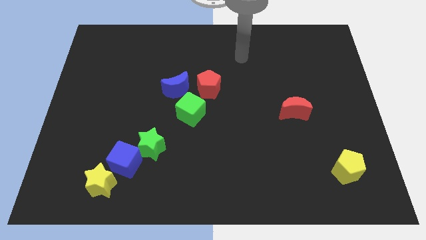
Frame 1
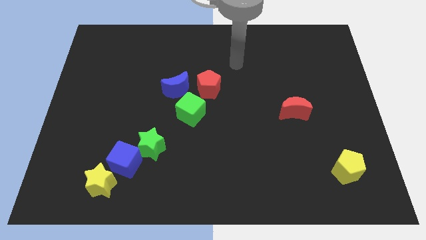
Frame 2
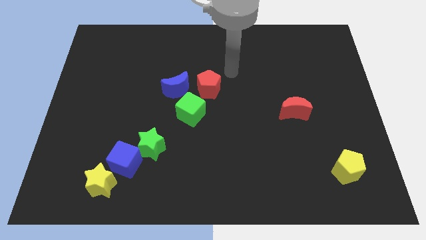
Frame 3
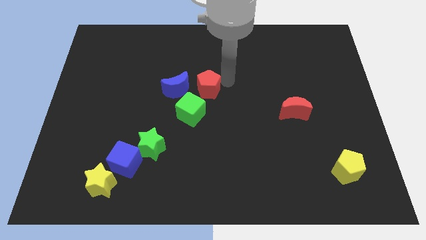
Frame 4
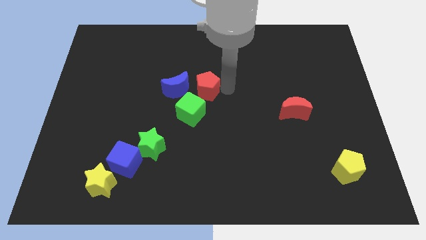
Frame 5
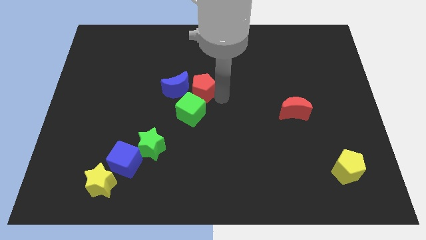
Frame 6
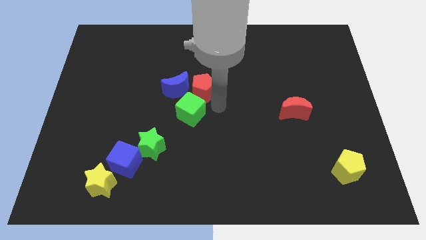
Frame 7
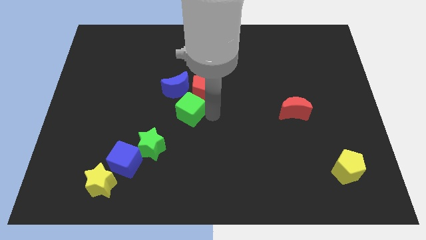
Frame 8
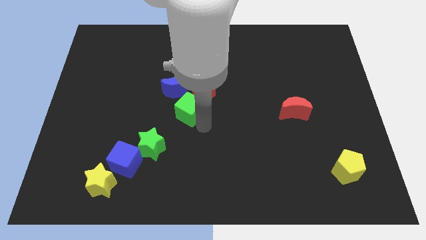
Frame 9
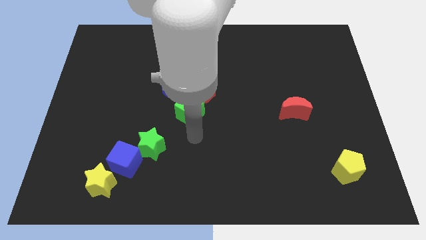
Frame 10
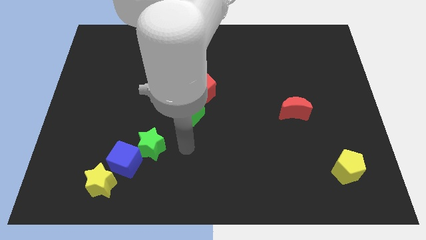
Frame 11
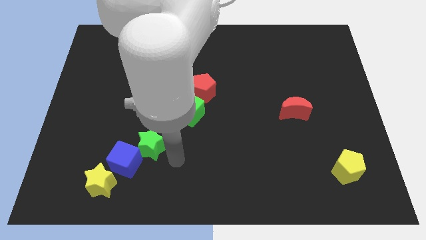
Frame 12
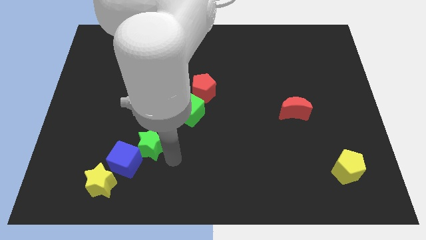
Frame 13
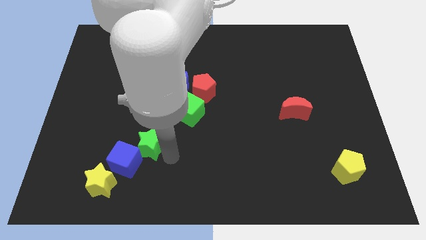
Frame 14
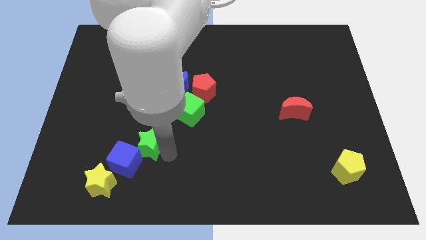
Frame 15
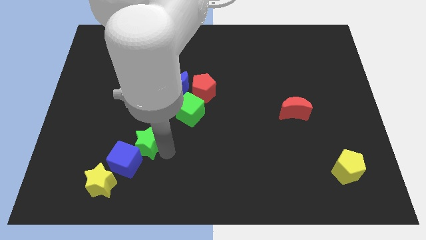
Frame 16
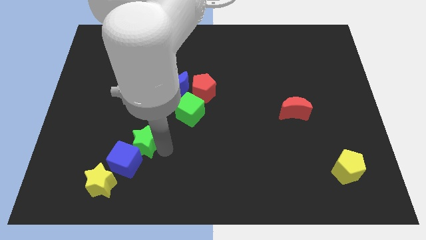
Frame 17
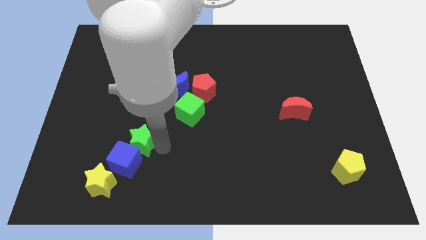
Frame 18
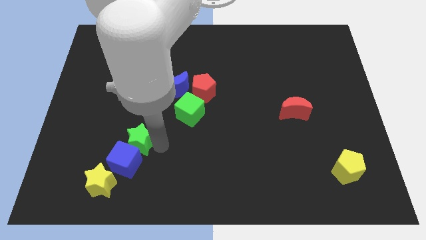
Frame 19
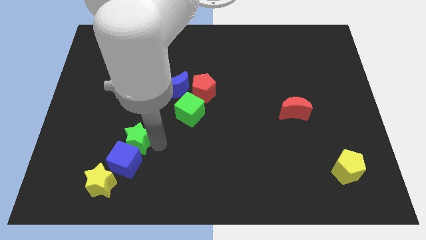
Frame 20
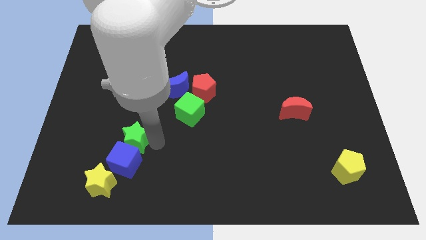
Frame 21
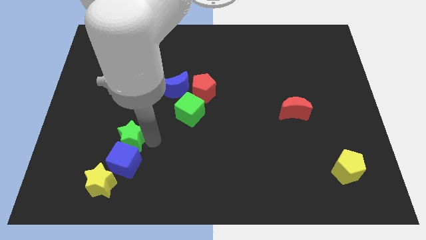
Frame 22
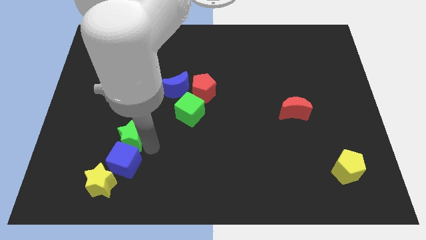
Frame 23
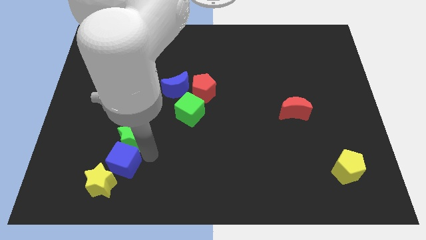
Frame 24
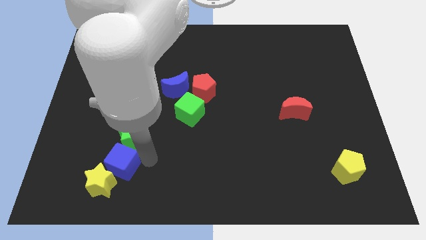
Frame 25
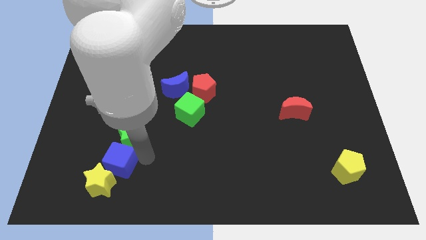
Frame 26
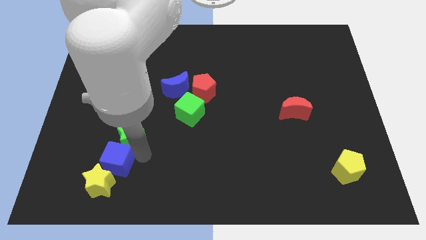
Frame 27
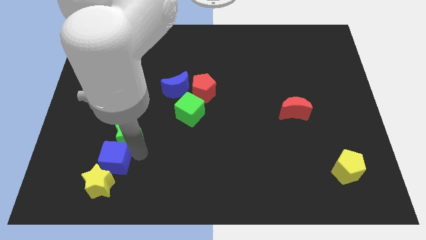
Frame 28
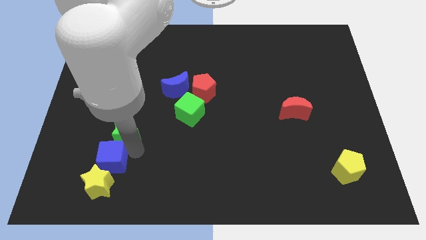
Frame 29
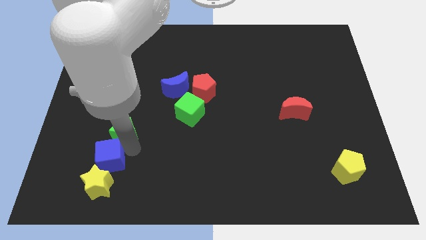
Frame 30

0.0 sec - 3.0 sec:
slide the green star a little bit upwards and left

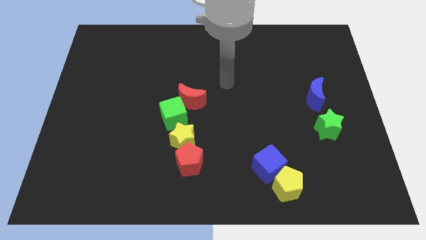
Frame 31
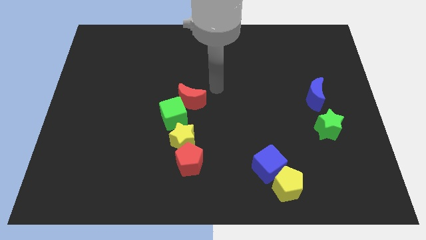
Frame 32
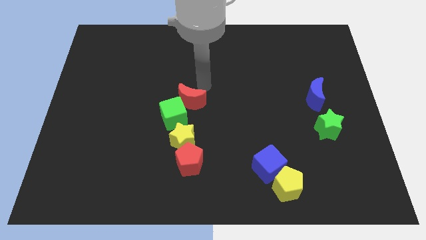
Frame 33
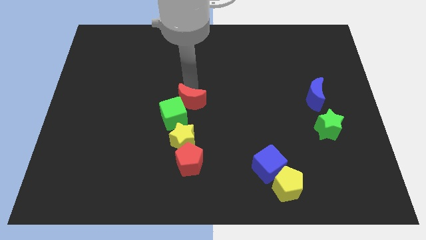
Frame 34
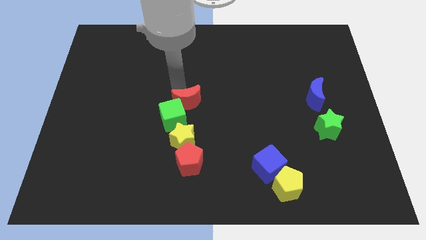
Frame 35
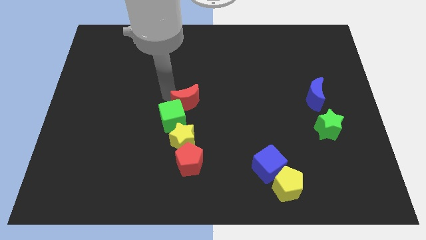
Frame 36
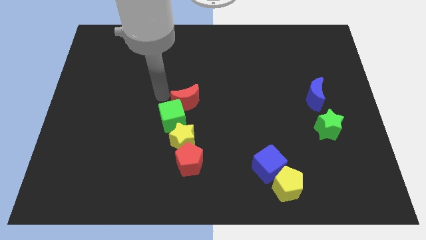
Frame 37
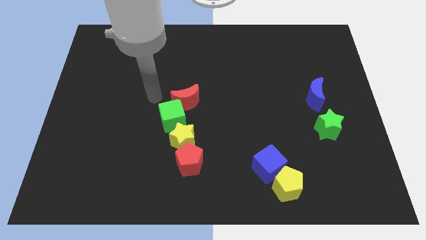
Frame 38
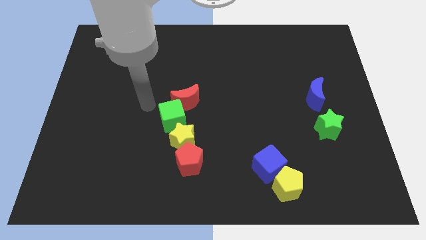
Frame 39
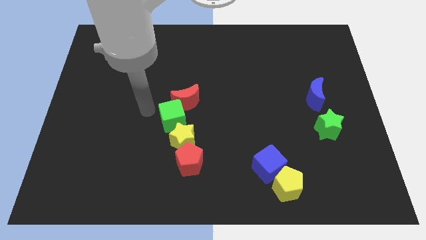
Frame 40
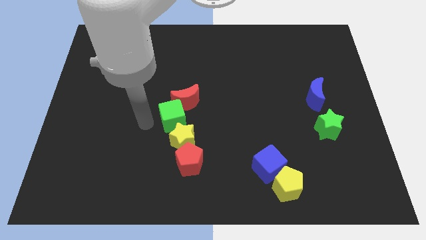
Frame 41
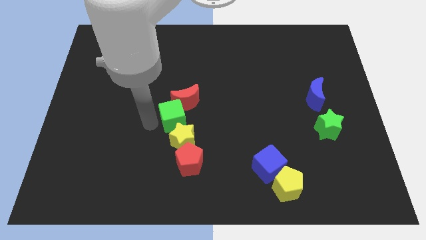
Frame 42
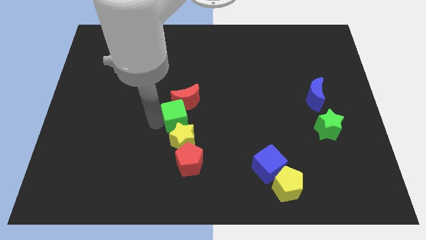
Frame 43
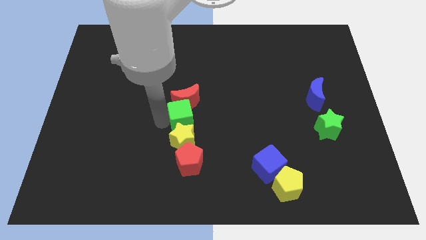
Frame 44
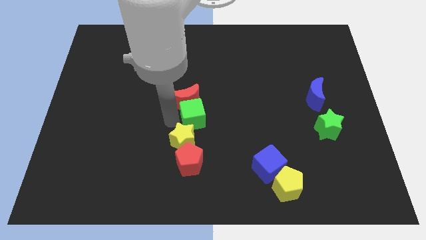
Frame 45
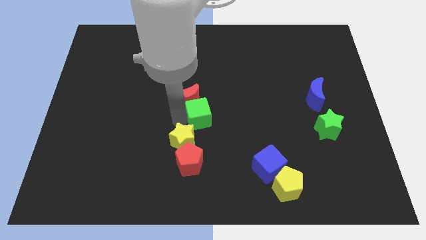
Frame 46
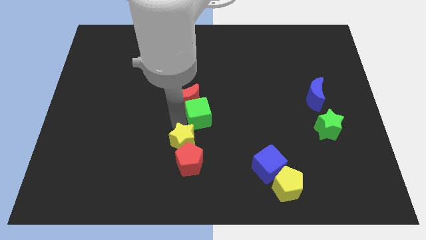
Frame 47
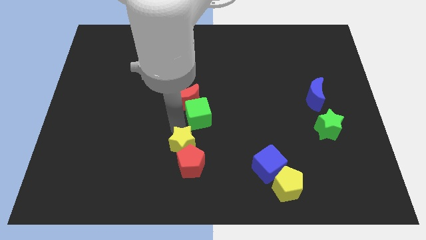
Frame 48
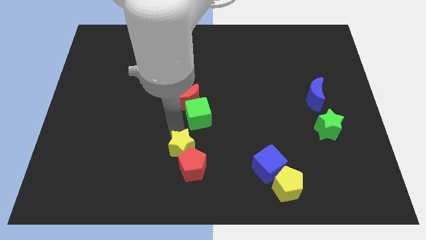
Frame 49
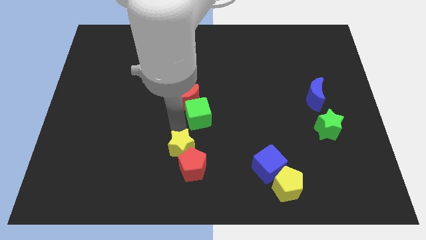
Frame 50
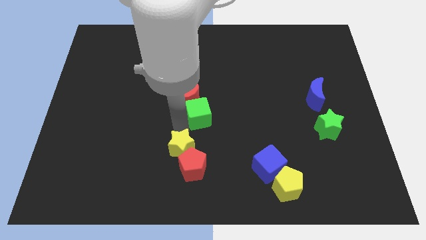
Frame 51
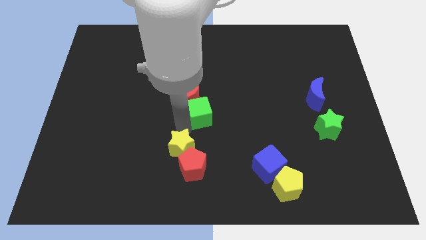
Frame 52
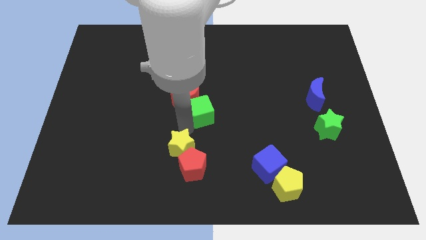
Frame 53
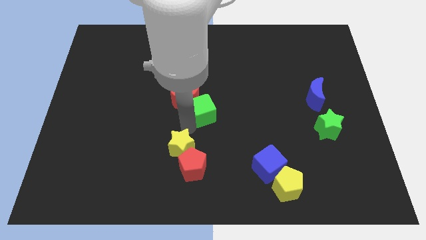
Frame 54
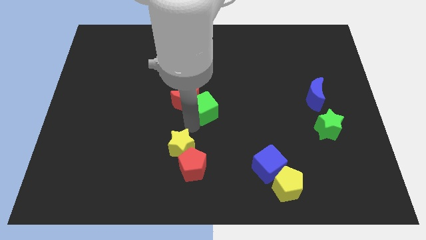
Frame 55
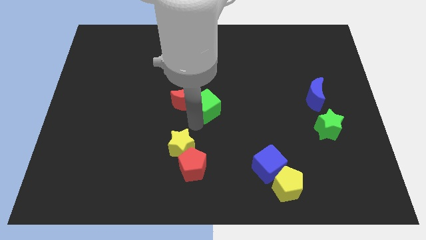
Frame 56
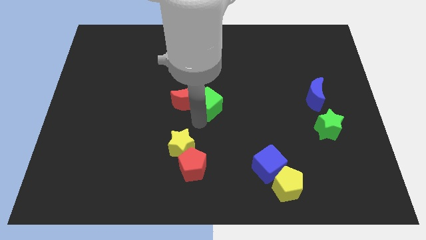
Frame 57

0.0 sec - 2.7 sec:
move the green cube somewhat upwards and to the right diagonally

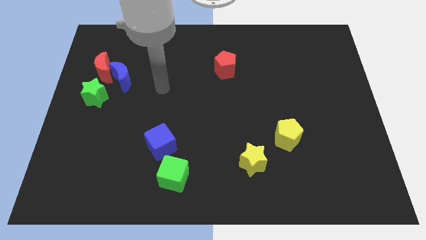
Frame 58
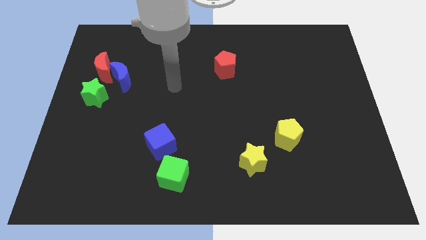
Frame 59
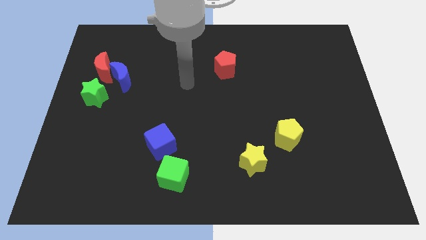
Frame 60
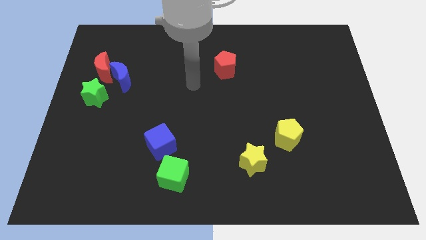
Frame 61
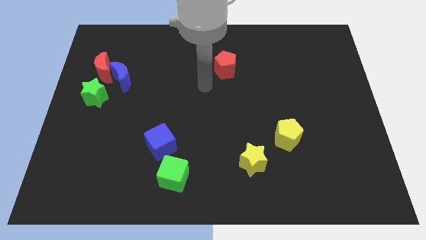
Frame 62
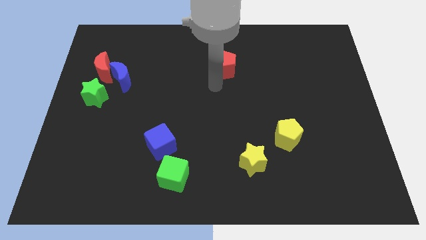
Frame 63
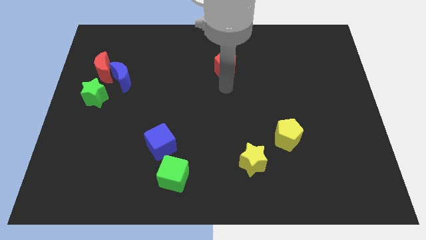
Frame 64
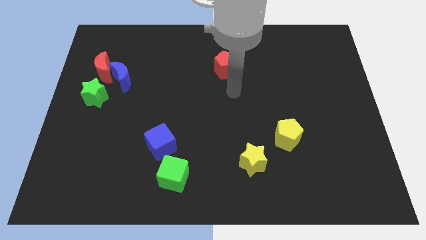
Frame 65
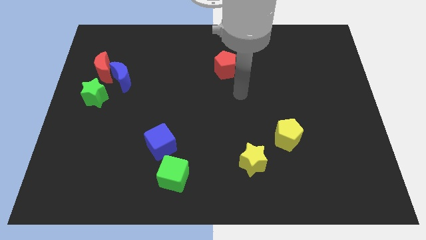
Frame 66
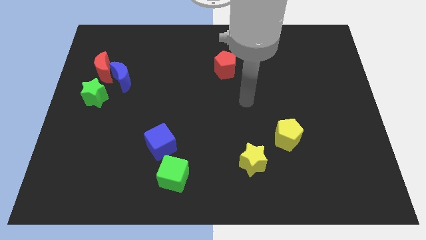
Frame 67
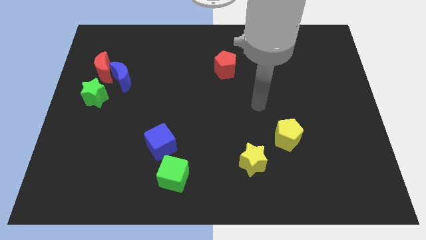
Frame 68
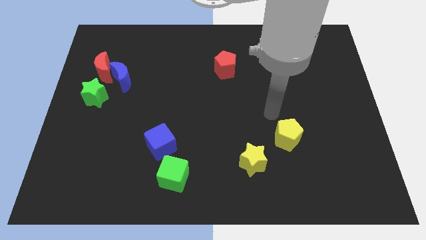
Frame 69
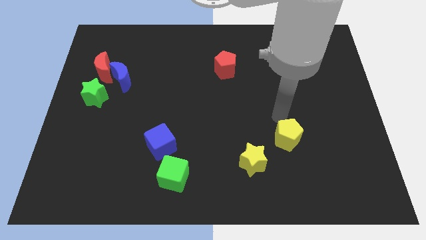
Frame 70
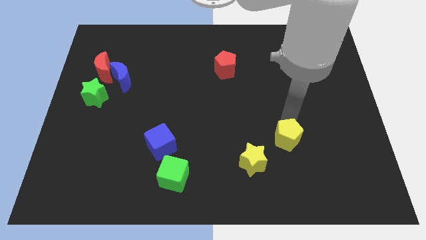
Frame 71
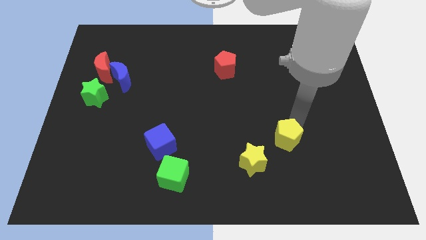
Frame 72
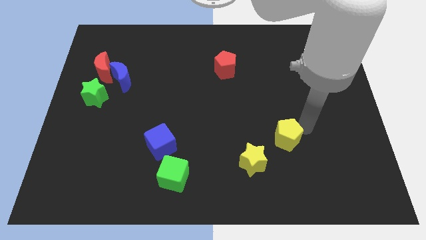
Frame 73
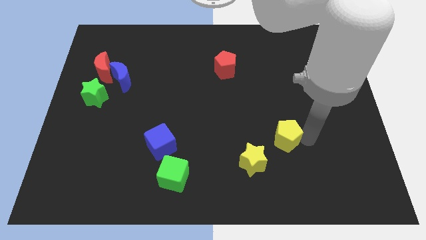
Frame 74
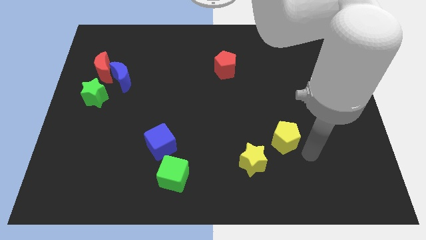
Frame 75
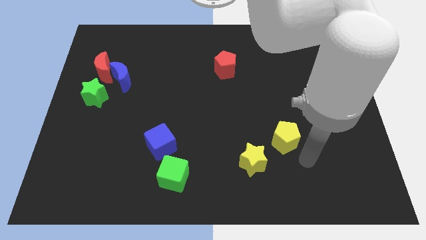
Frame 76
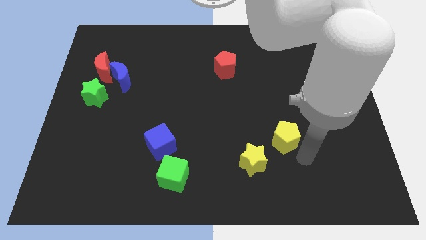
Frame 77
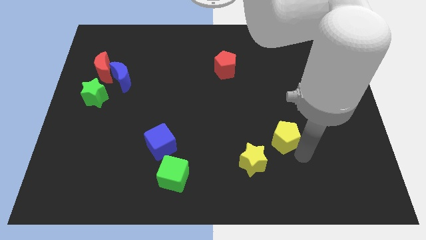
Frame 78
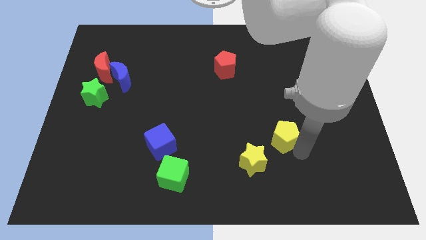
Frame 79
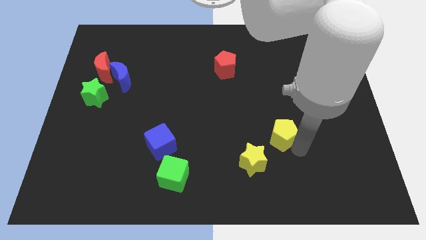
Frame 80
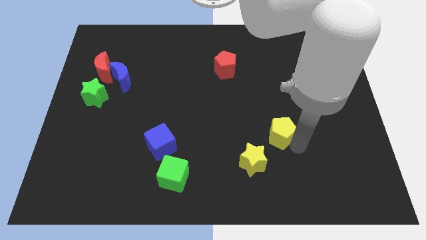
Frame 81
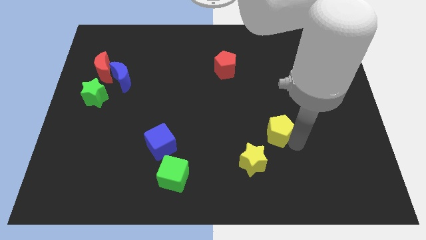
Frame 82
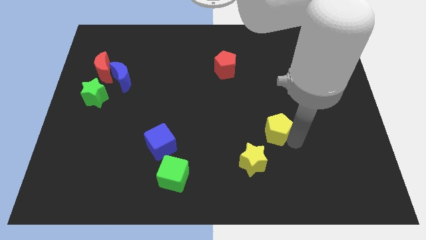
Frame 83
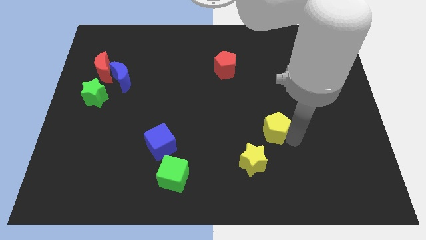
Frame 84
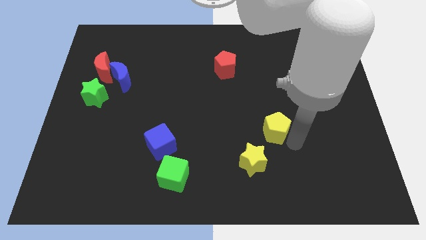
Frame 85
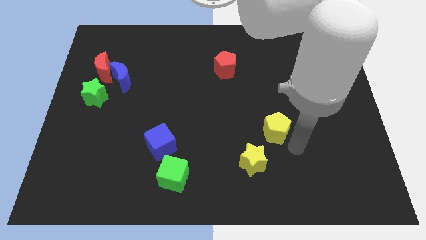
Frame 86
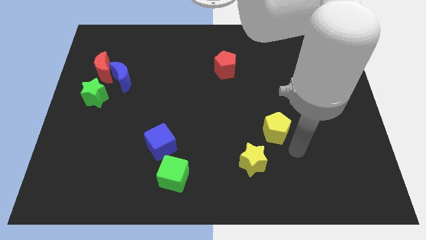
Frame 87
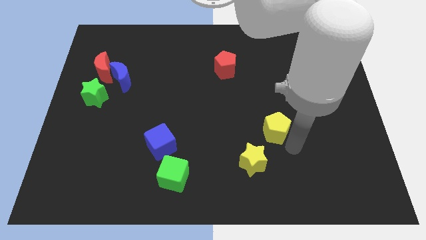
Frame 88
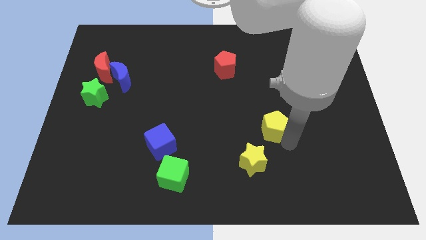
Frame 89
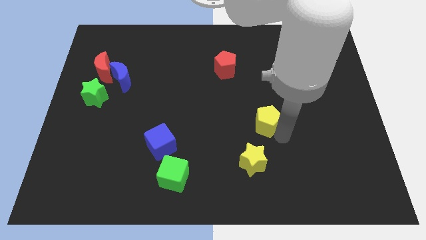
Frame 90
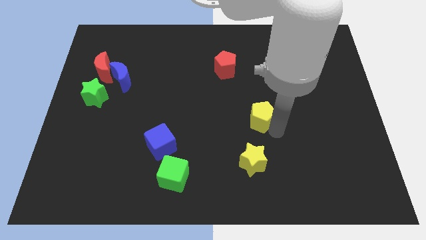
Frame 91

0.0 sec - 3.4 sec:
slide the yellow pentagon slightly diagonally up and left
